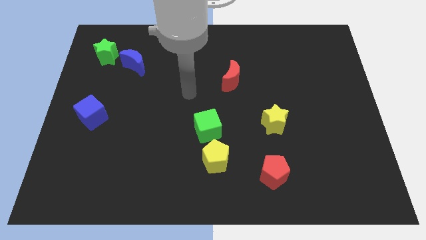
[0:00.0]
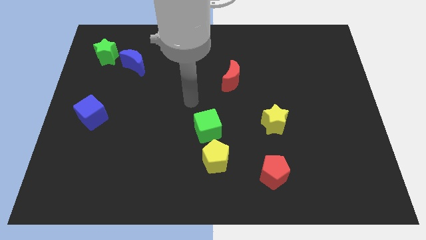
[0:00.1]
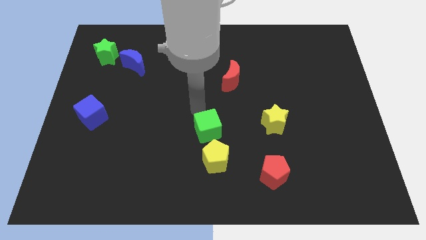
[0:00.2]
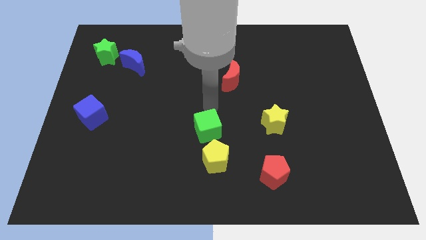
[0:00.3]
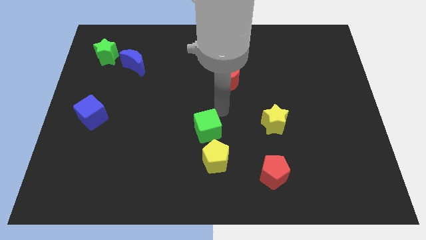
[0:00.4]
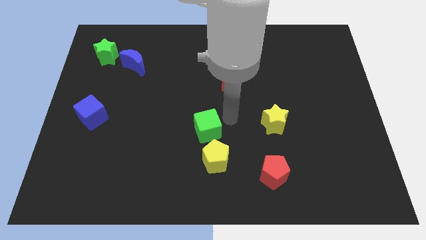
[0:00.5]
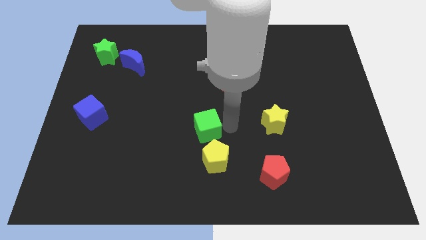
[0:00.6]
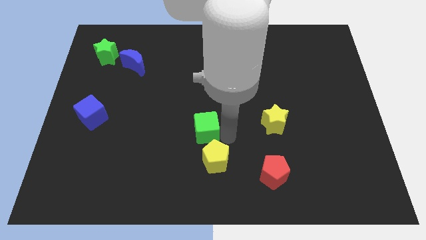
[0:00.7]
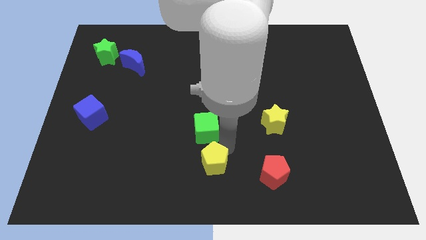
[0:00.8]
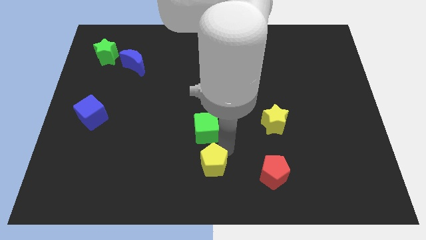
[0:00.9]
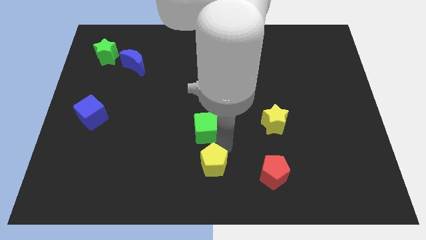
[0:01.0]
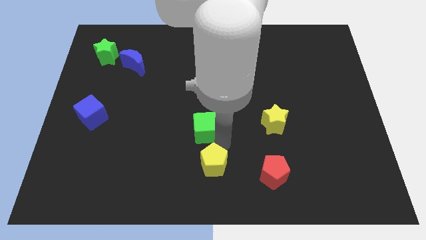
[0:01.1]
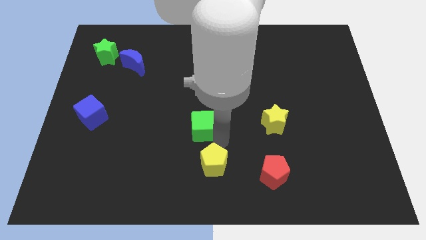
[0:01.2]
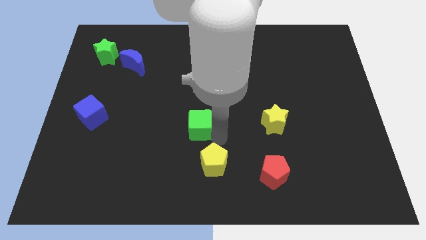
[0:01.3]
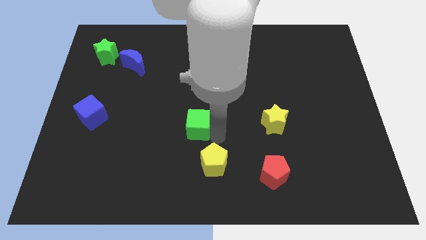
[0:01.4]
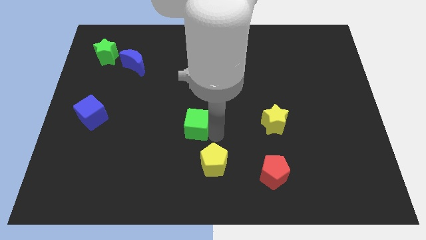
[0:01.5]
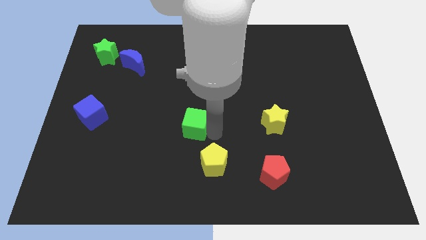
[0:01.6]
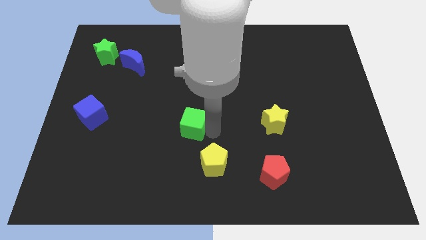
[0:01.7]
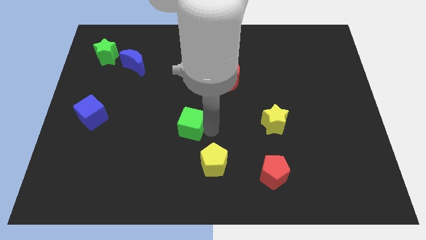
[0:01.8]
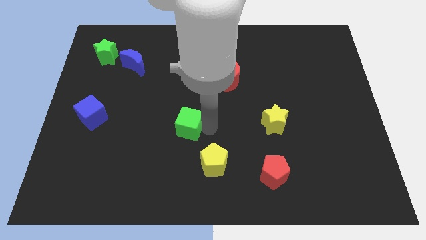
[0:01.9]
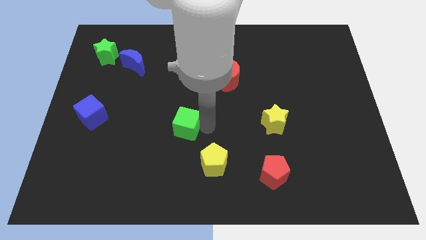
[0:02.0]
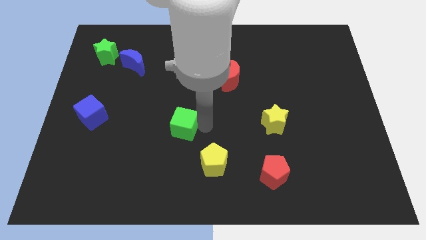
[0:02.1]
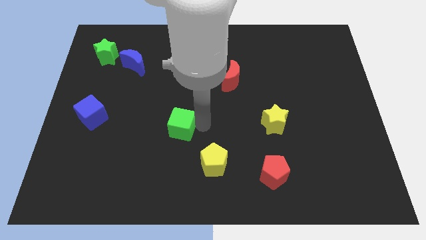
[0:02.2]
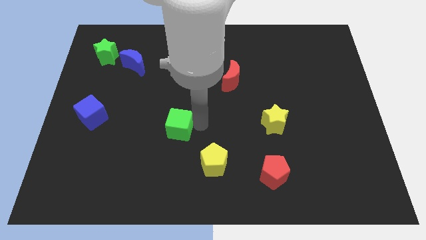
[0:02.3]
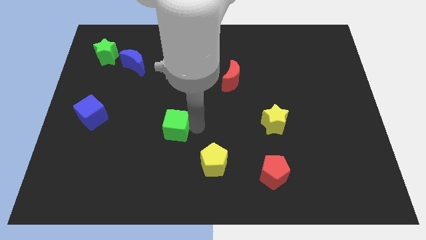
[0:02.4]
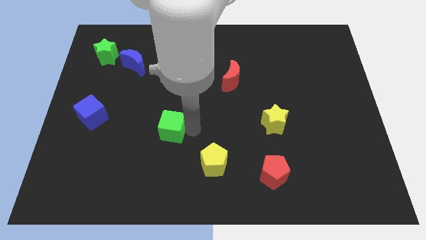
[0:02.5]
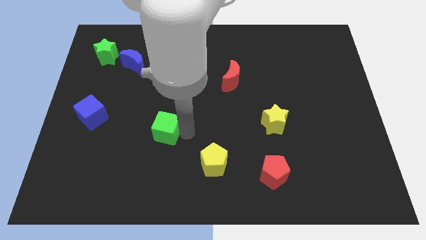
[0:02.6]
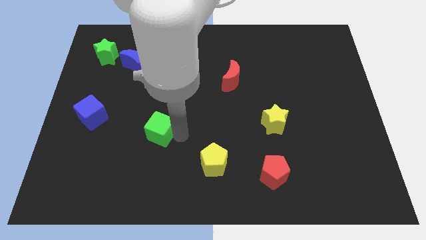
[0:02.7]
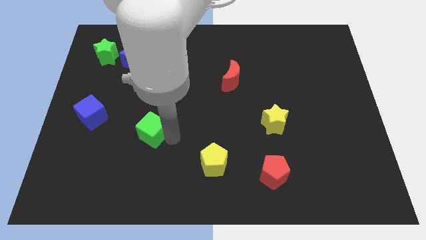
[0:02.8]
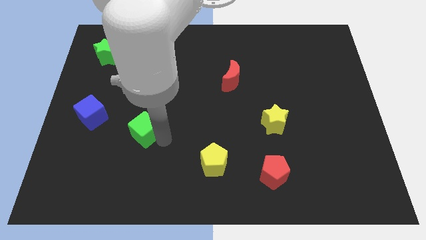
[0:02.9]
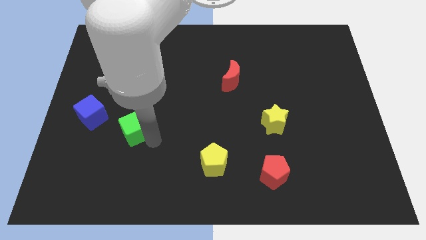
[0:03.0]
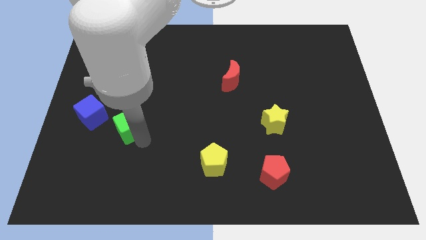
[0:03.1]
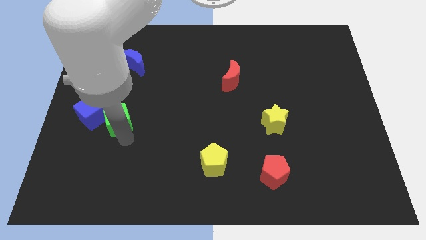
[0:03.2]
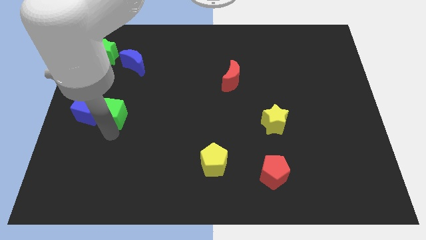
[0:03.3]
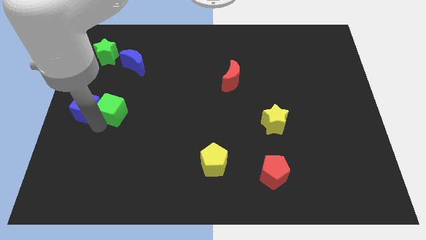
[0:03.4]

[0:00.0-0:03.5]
slide the green cube somewhat upwards and then to the left

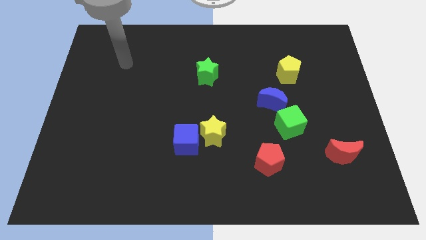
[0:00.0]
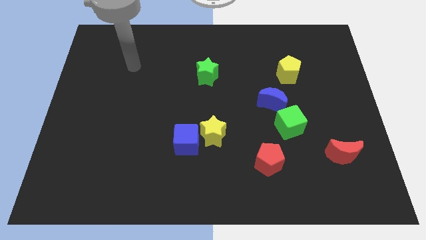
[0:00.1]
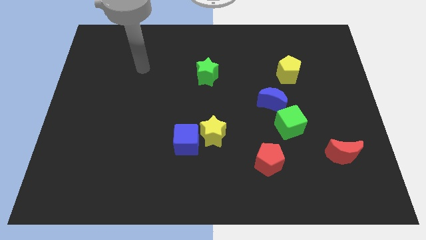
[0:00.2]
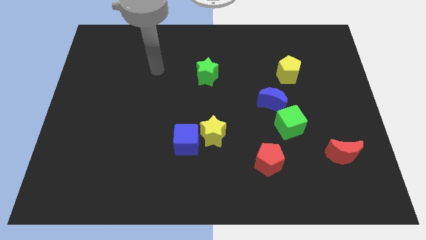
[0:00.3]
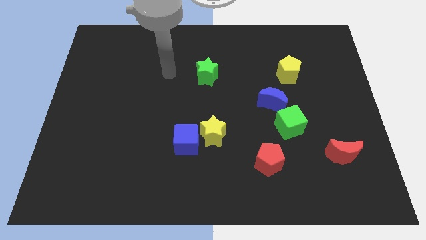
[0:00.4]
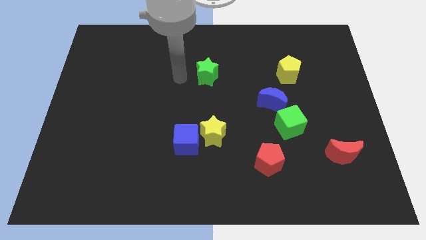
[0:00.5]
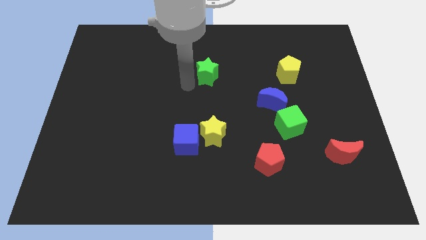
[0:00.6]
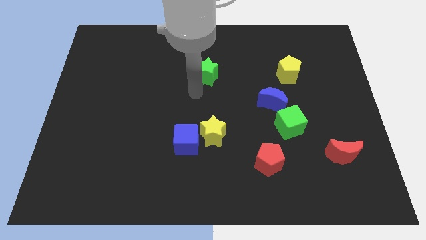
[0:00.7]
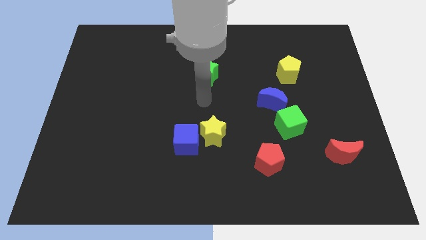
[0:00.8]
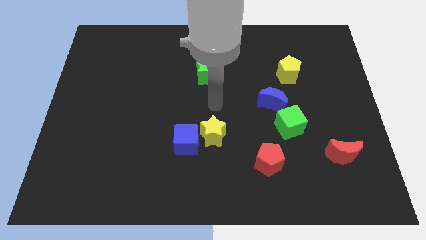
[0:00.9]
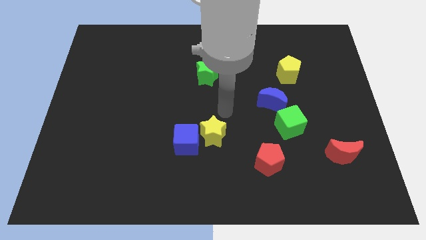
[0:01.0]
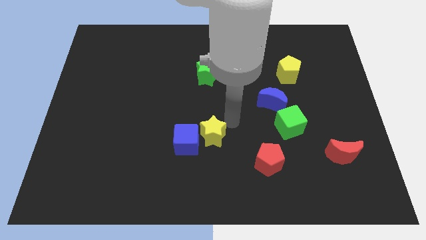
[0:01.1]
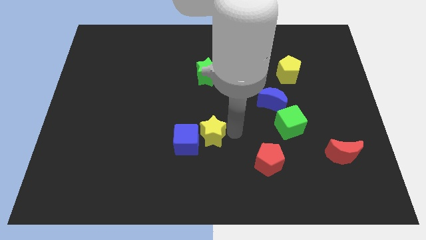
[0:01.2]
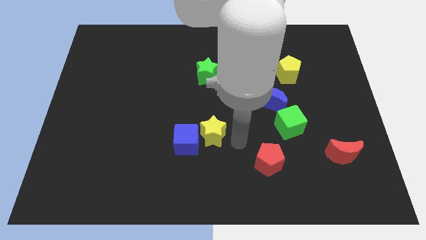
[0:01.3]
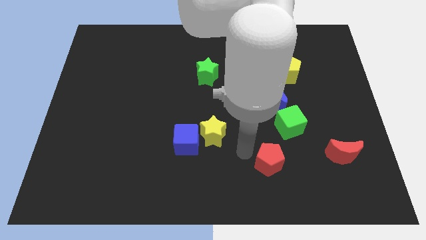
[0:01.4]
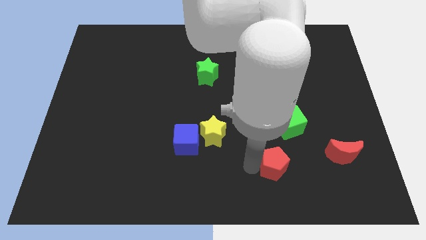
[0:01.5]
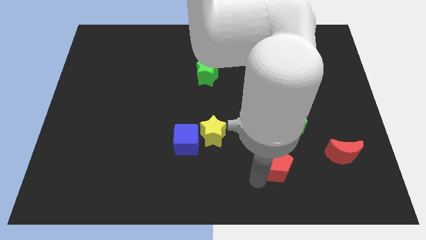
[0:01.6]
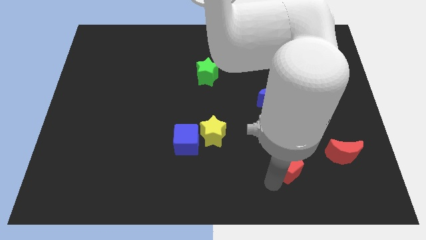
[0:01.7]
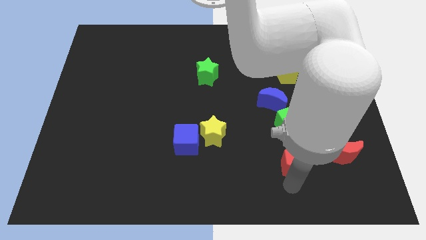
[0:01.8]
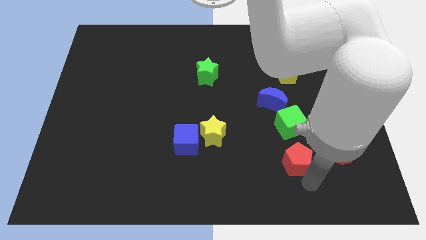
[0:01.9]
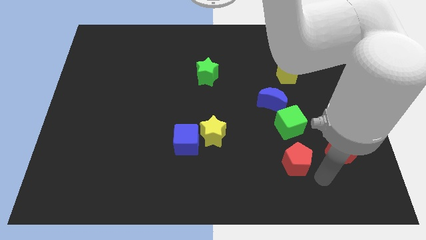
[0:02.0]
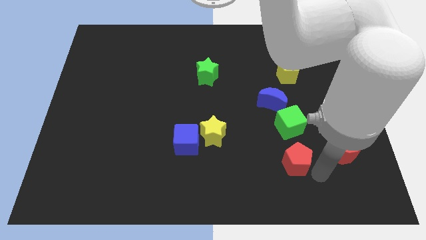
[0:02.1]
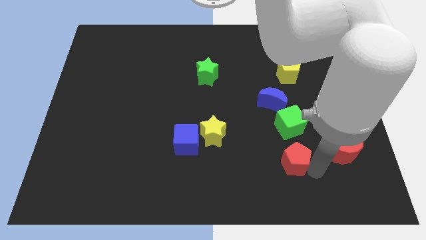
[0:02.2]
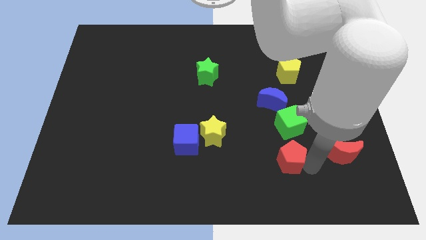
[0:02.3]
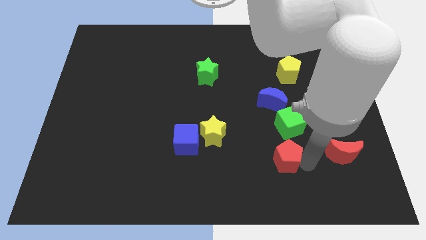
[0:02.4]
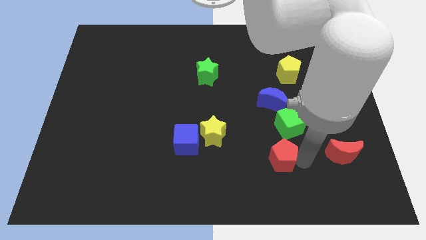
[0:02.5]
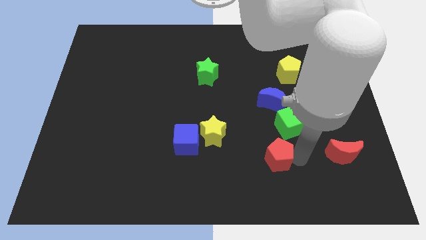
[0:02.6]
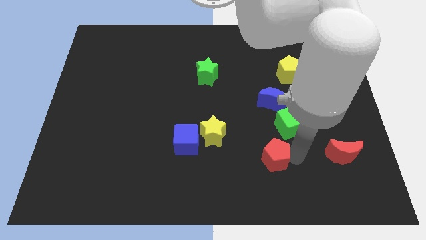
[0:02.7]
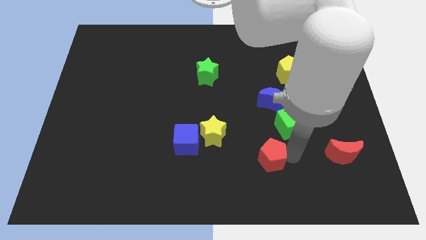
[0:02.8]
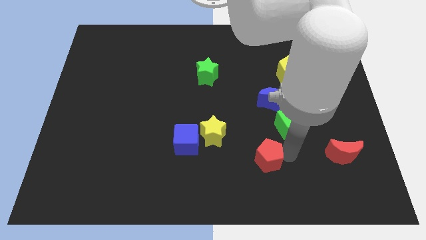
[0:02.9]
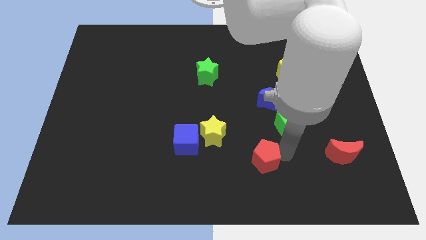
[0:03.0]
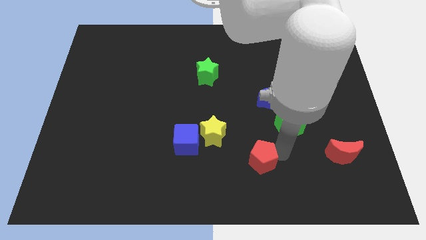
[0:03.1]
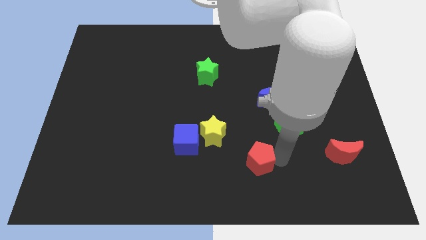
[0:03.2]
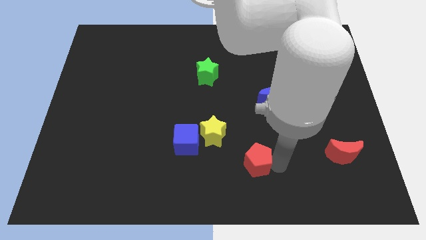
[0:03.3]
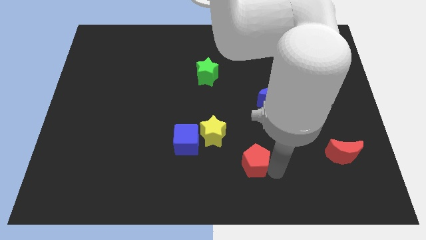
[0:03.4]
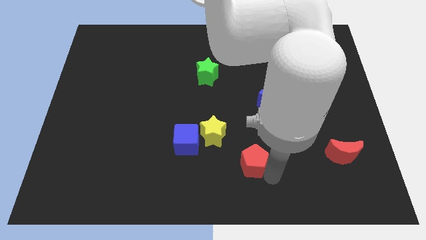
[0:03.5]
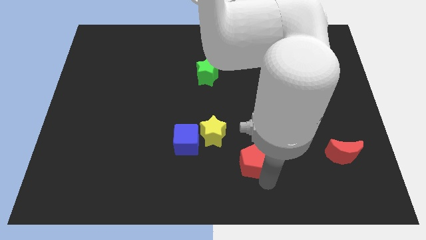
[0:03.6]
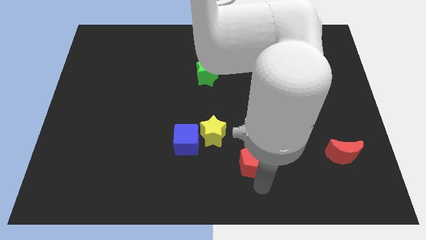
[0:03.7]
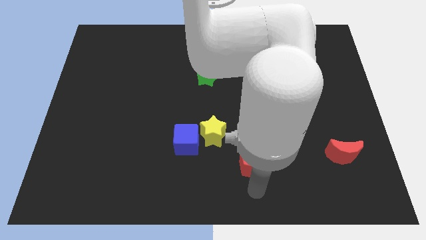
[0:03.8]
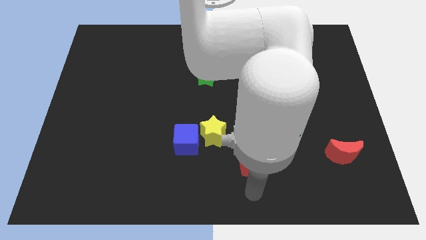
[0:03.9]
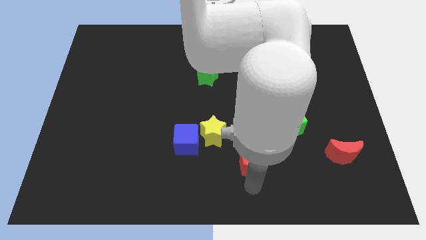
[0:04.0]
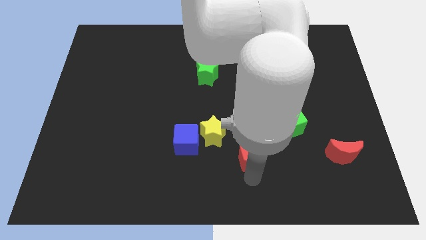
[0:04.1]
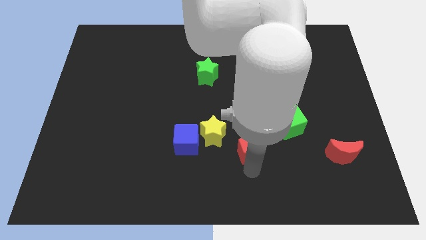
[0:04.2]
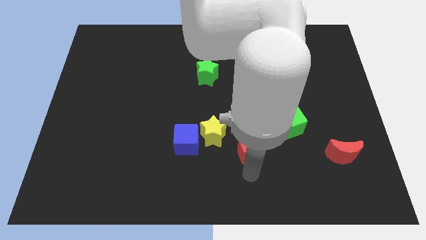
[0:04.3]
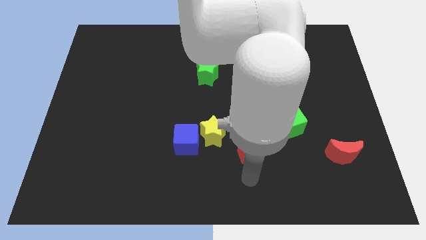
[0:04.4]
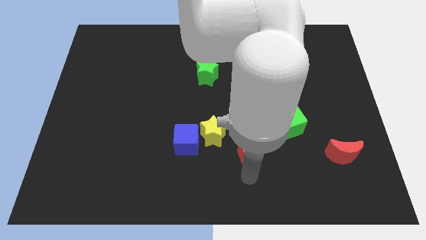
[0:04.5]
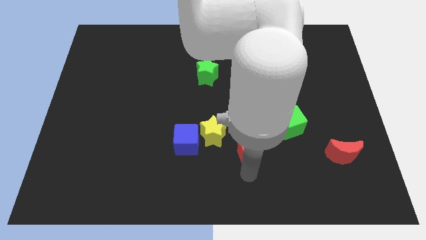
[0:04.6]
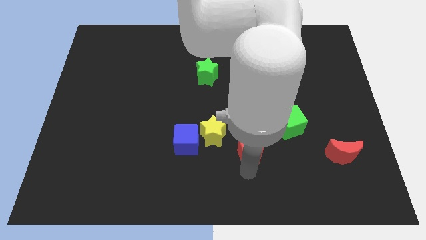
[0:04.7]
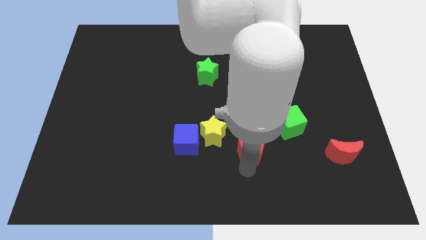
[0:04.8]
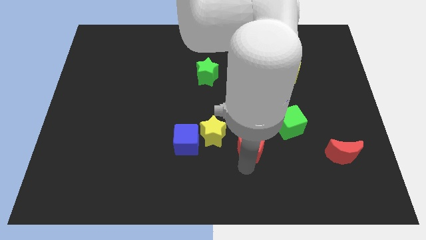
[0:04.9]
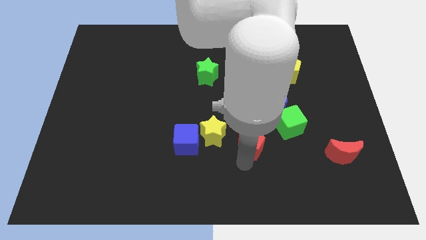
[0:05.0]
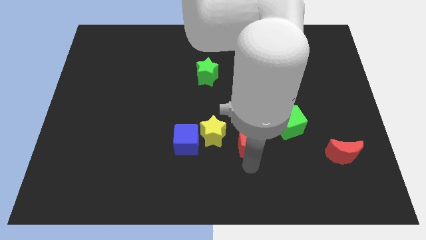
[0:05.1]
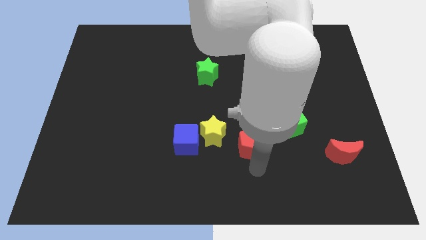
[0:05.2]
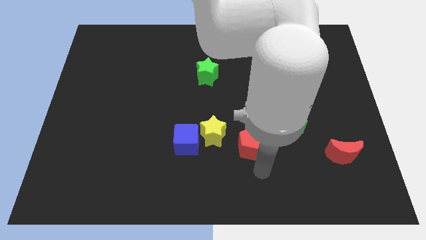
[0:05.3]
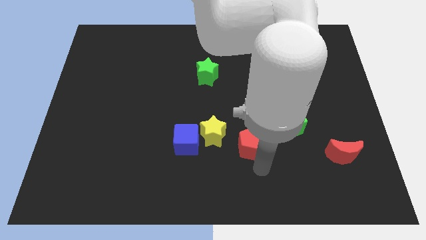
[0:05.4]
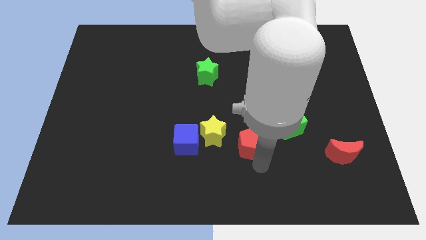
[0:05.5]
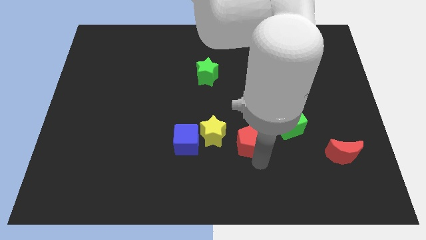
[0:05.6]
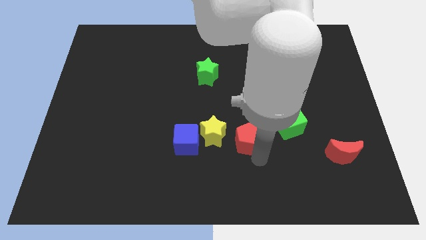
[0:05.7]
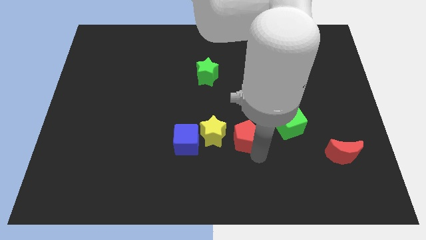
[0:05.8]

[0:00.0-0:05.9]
slightly push the red pentagon diagonally upwards and to the left
